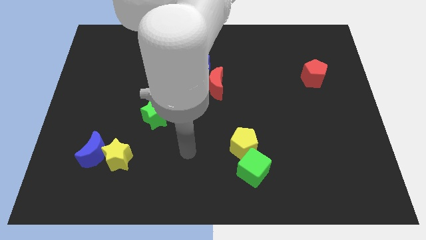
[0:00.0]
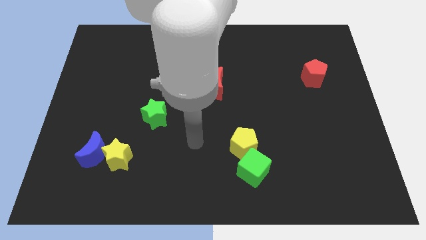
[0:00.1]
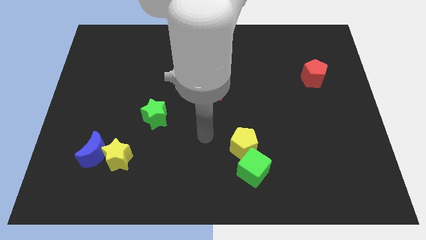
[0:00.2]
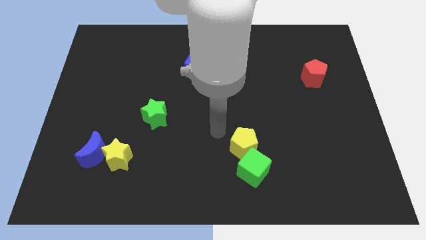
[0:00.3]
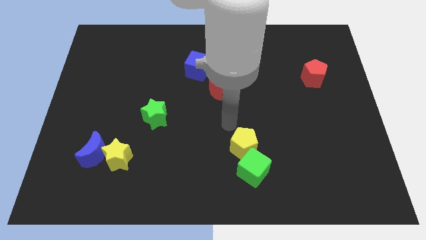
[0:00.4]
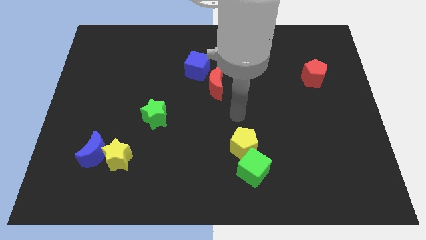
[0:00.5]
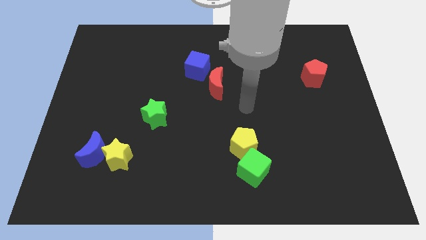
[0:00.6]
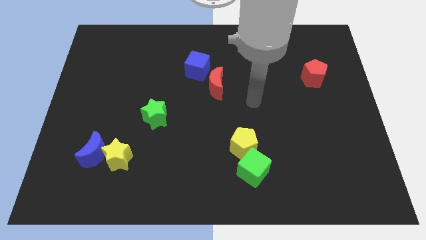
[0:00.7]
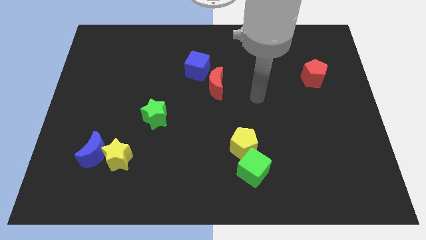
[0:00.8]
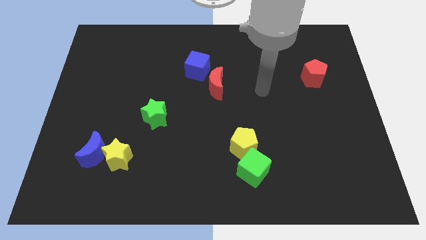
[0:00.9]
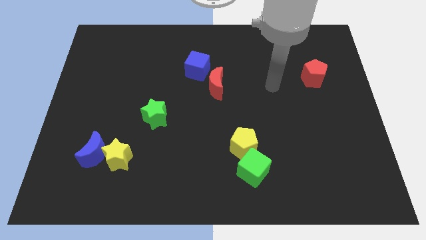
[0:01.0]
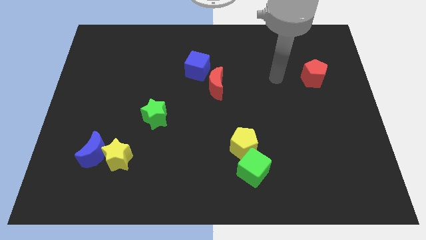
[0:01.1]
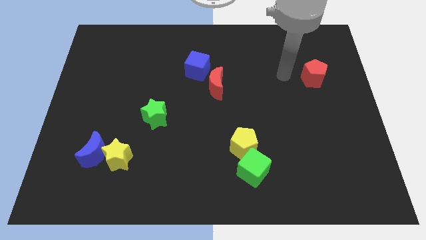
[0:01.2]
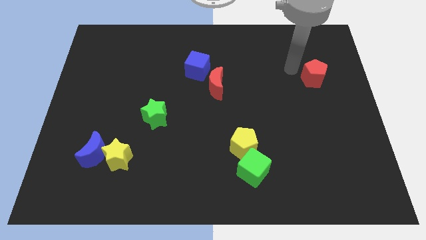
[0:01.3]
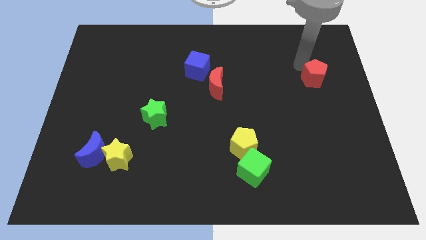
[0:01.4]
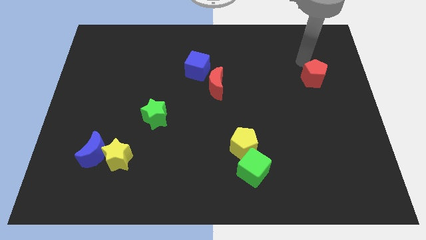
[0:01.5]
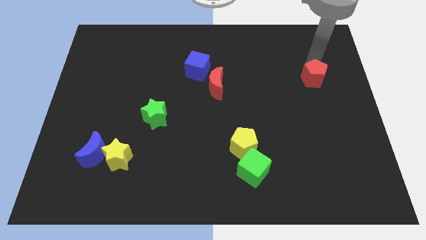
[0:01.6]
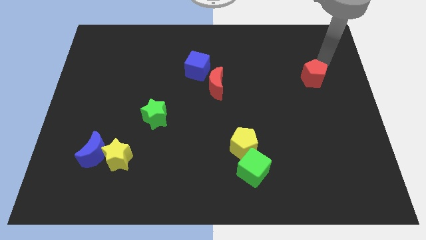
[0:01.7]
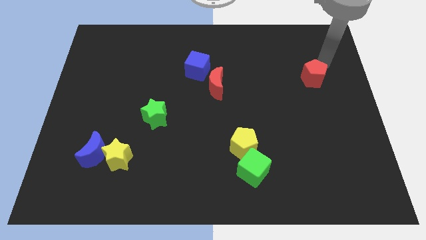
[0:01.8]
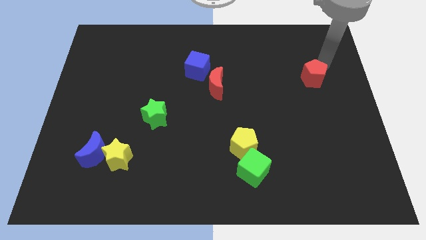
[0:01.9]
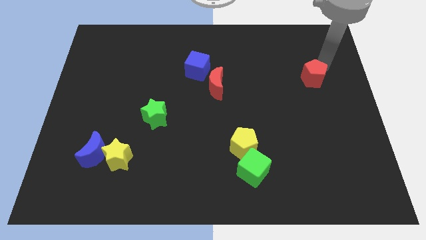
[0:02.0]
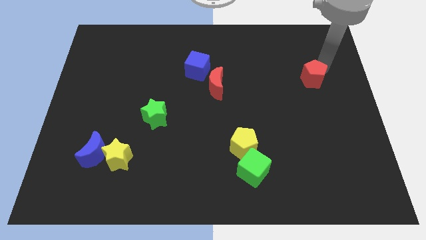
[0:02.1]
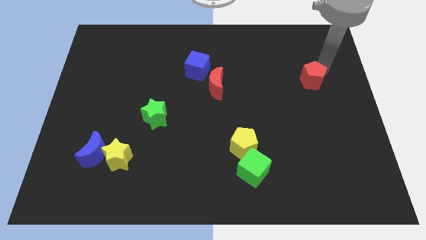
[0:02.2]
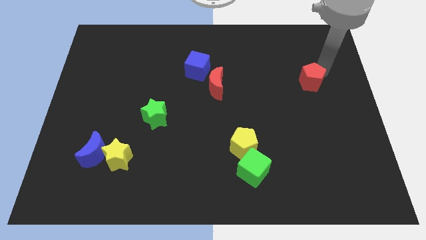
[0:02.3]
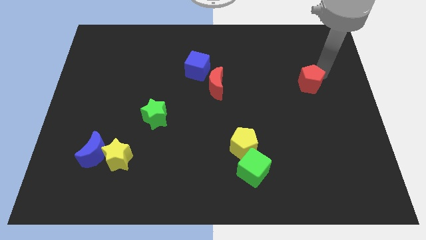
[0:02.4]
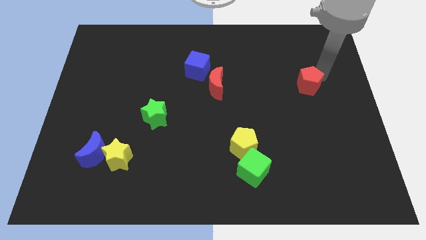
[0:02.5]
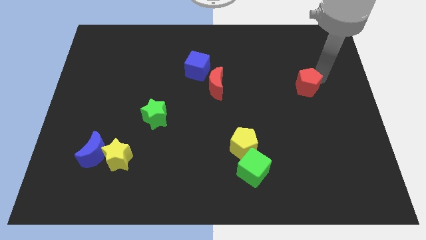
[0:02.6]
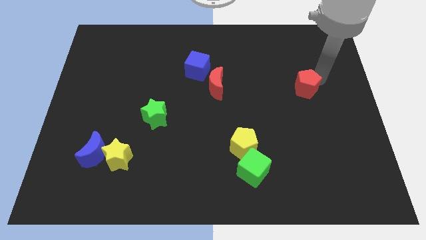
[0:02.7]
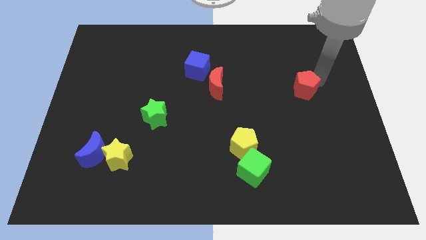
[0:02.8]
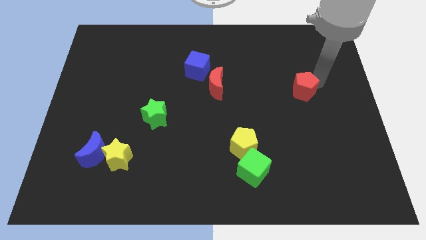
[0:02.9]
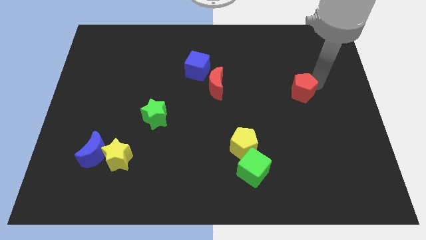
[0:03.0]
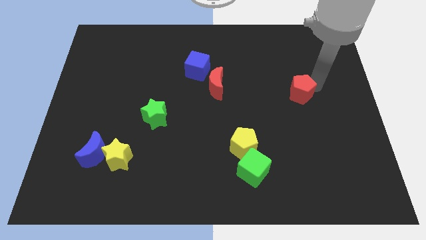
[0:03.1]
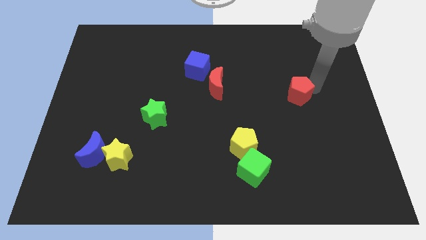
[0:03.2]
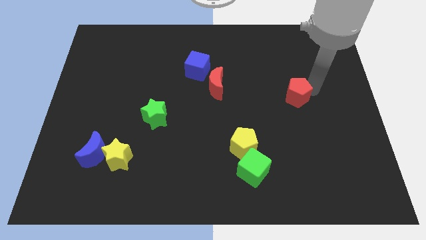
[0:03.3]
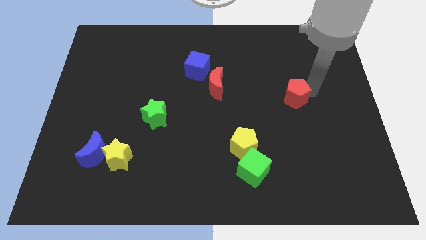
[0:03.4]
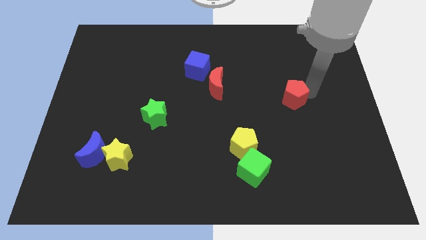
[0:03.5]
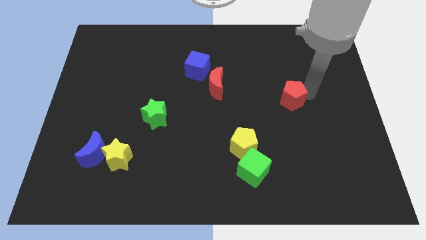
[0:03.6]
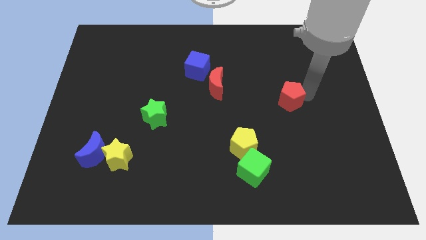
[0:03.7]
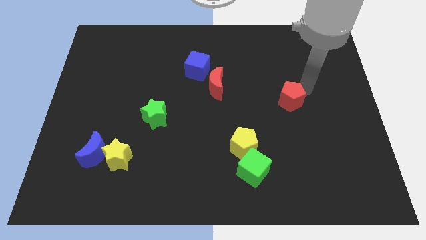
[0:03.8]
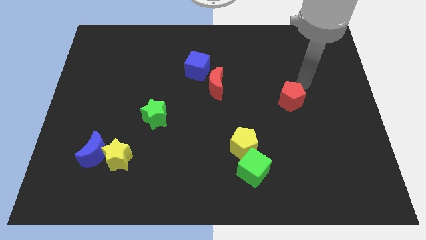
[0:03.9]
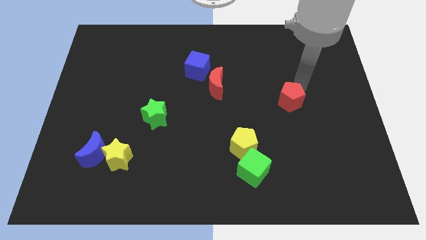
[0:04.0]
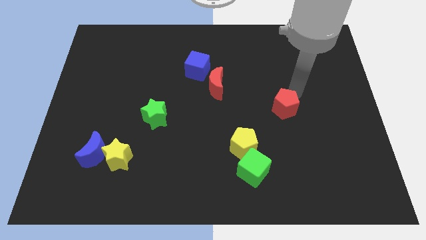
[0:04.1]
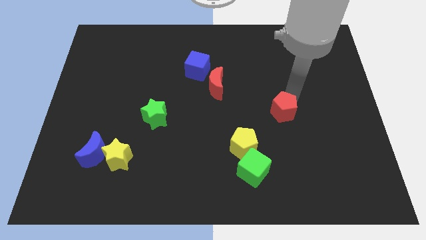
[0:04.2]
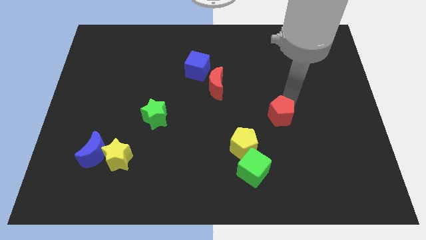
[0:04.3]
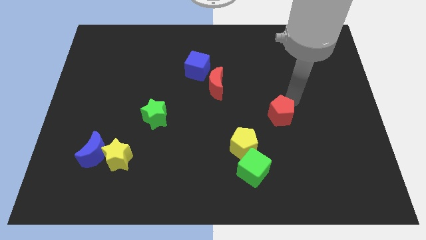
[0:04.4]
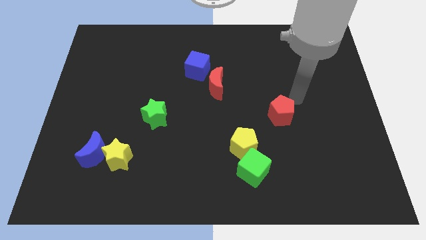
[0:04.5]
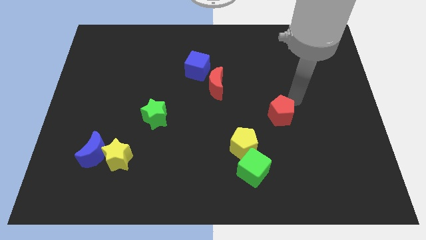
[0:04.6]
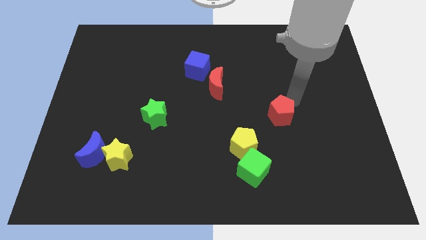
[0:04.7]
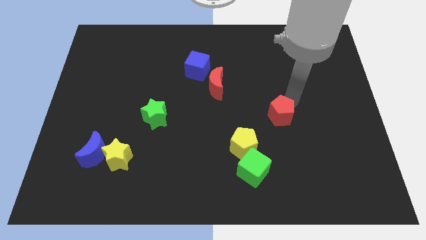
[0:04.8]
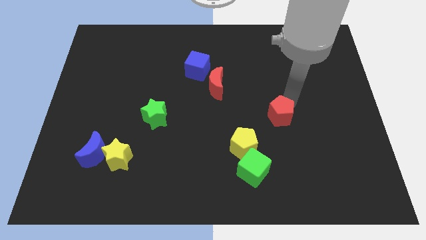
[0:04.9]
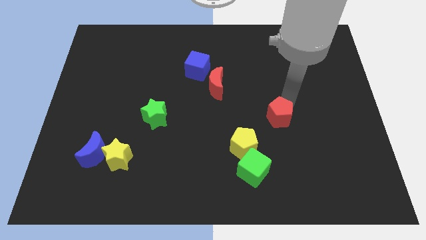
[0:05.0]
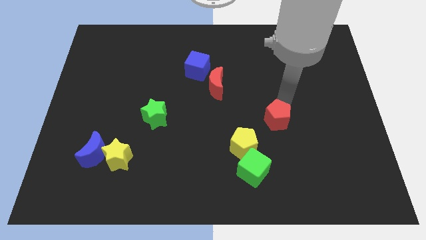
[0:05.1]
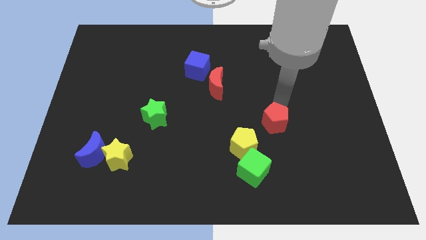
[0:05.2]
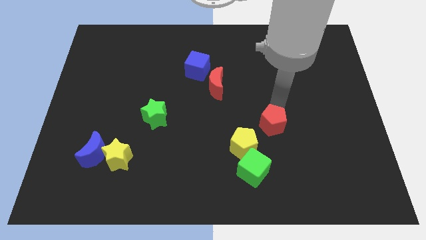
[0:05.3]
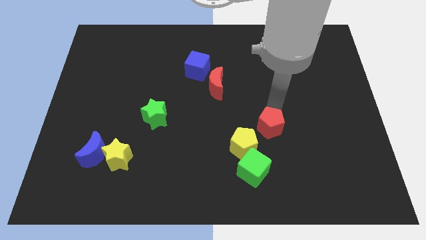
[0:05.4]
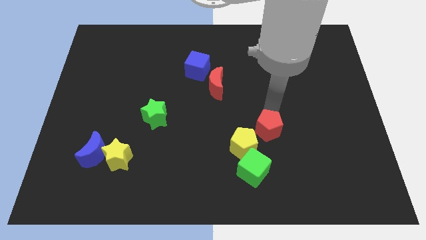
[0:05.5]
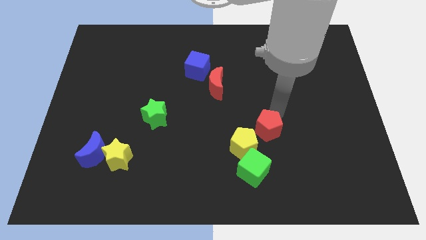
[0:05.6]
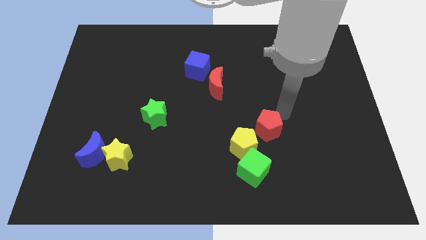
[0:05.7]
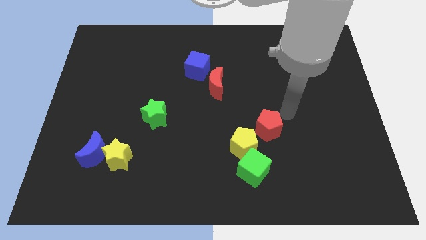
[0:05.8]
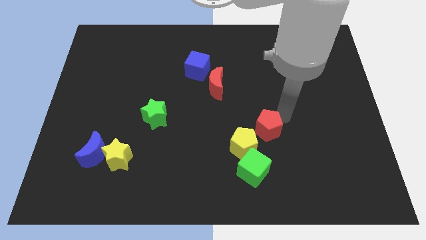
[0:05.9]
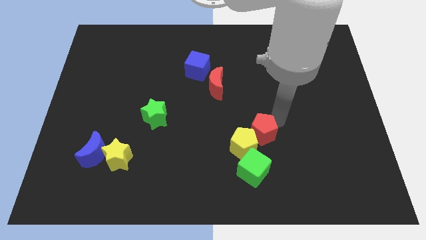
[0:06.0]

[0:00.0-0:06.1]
move the red pentagon to the yellow pentagon

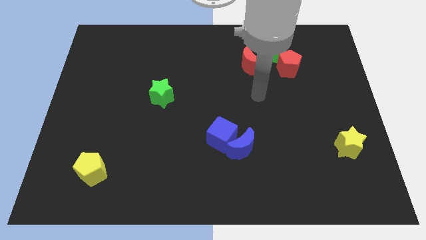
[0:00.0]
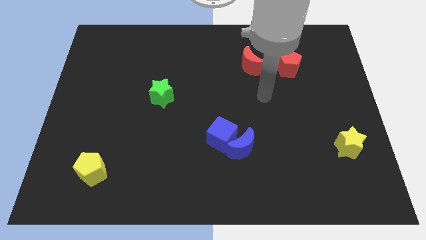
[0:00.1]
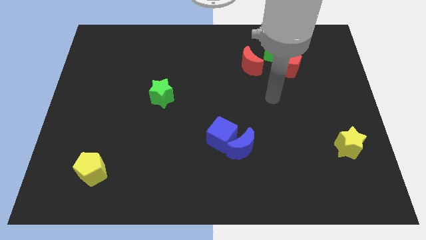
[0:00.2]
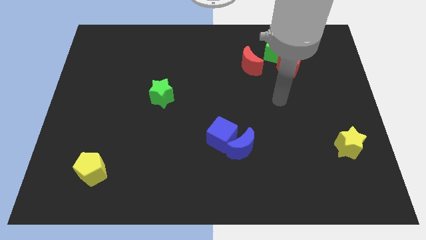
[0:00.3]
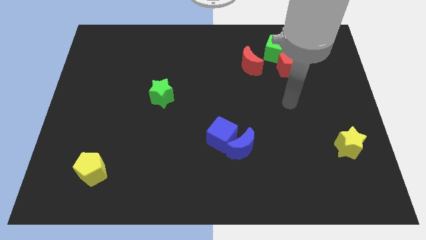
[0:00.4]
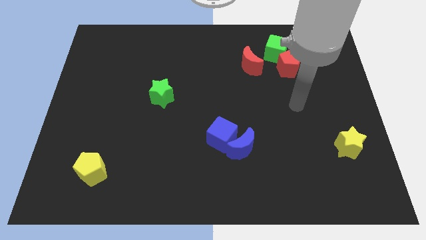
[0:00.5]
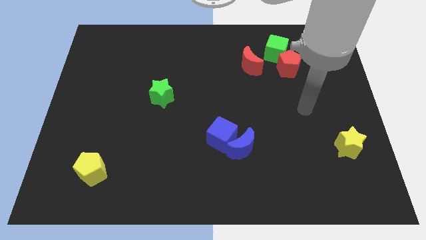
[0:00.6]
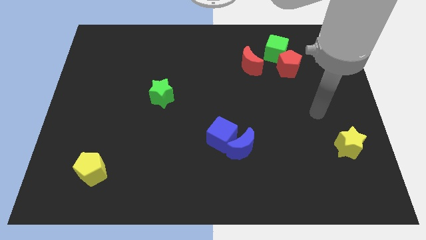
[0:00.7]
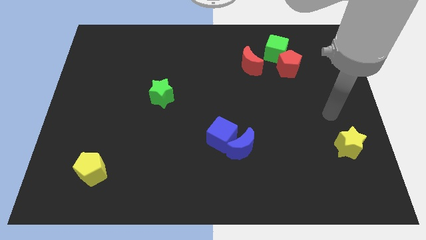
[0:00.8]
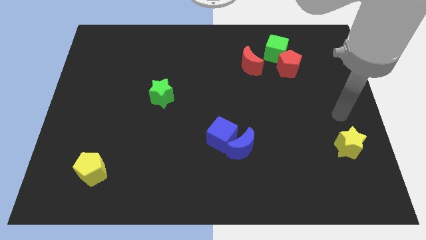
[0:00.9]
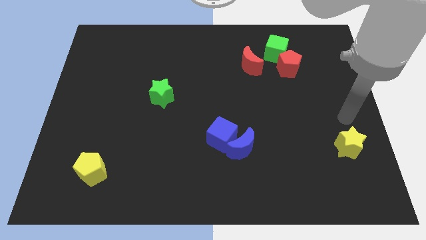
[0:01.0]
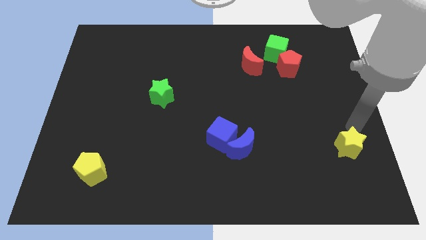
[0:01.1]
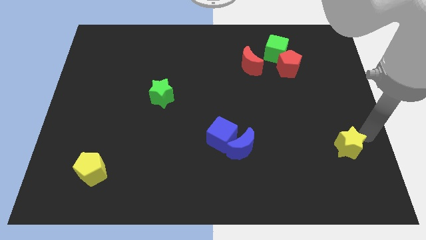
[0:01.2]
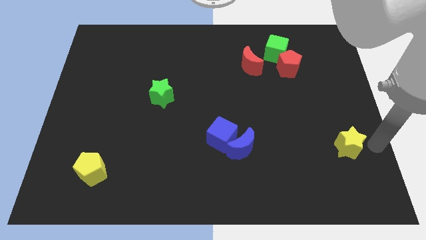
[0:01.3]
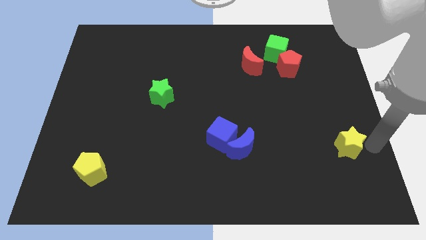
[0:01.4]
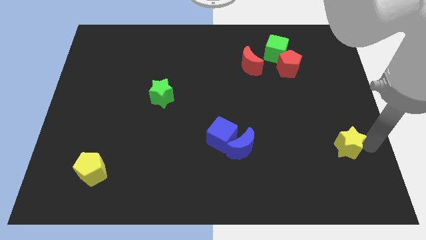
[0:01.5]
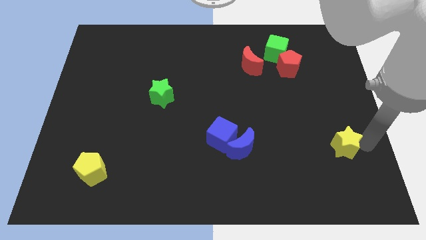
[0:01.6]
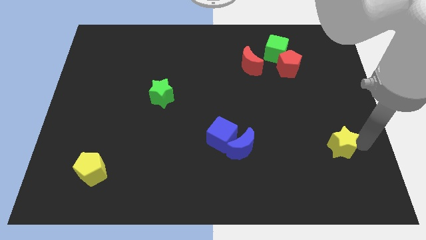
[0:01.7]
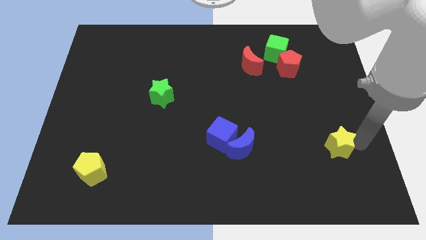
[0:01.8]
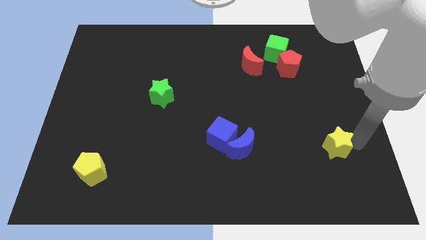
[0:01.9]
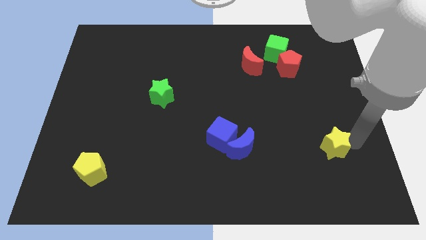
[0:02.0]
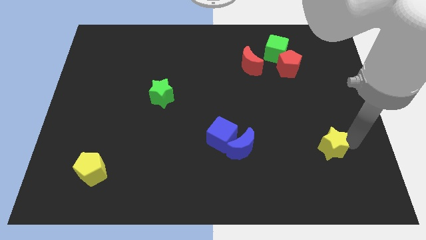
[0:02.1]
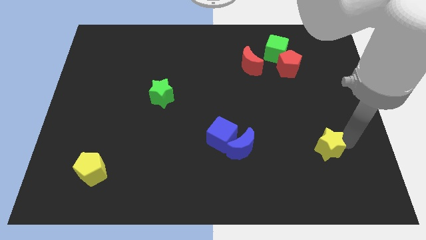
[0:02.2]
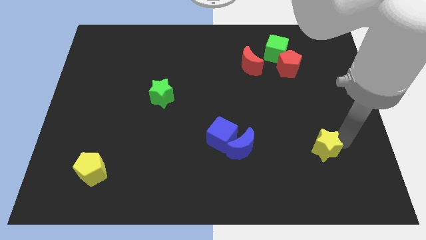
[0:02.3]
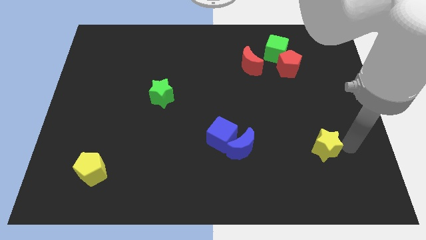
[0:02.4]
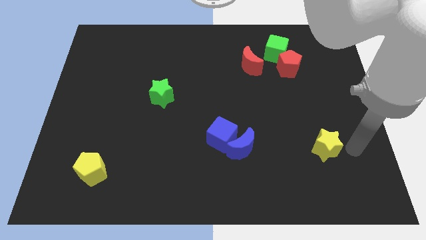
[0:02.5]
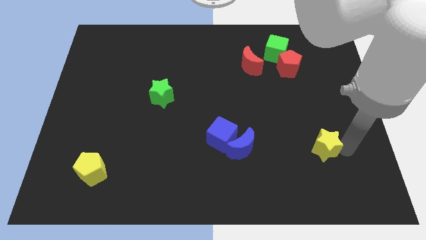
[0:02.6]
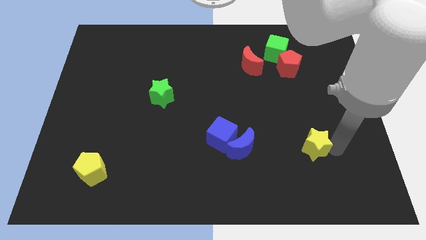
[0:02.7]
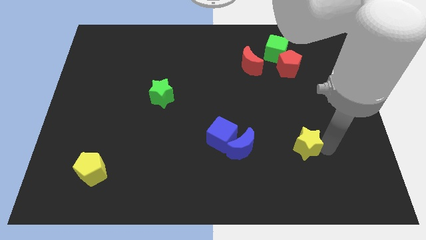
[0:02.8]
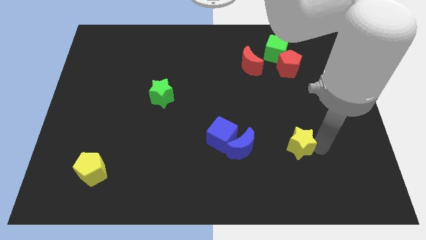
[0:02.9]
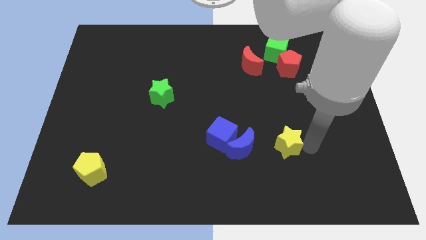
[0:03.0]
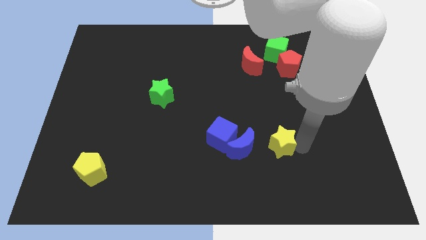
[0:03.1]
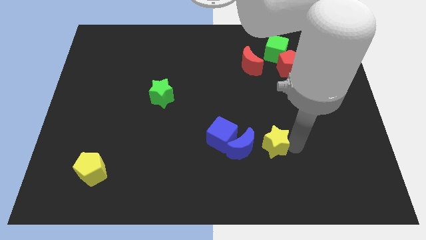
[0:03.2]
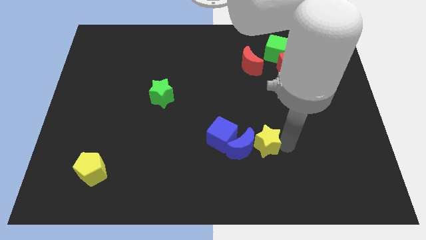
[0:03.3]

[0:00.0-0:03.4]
slide the yellow star next to the blue moon
